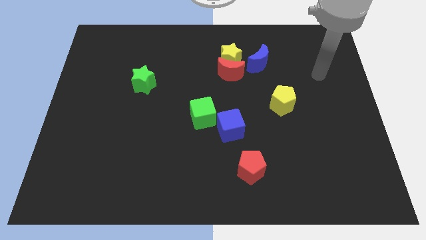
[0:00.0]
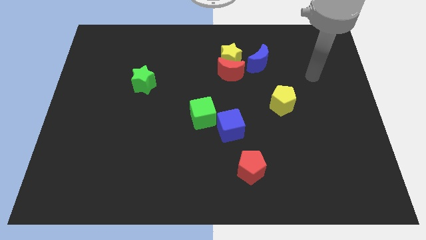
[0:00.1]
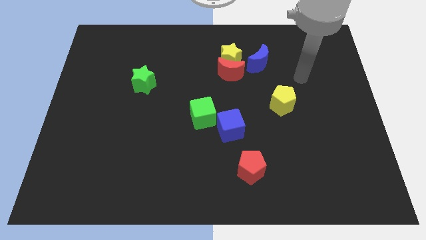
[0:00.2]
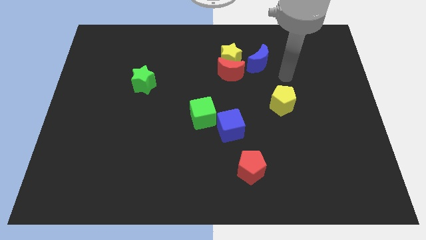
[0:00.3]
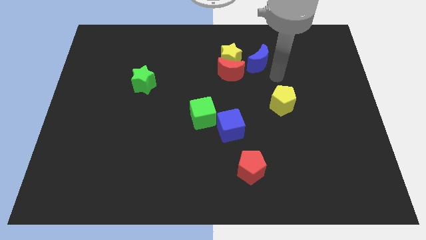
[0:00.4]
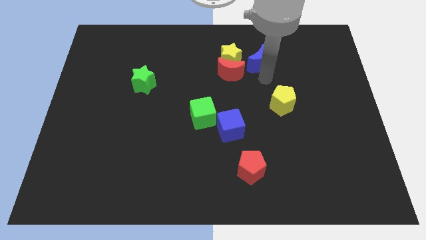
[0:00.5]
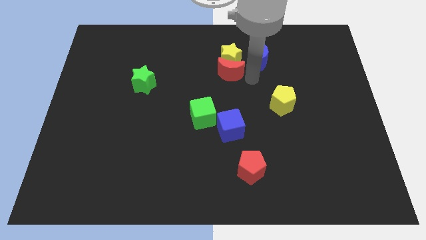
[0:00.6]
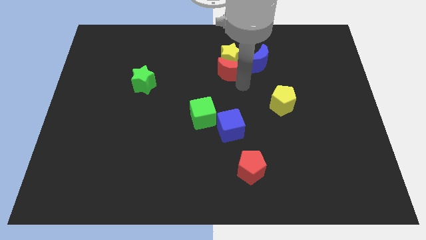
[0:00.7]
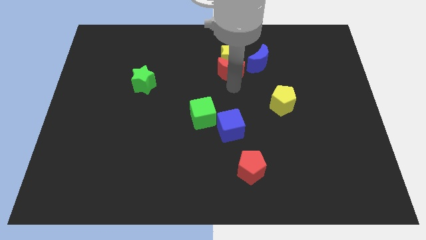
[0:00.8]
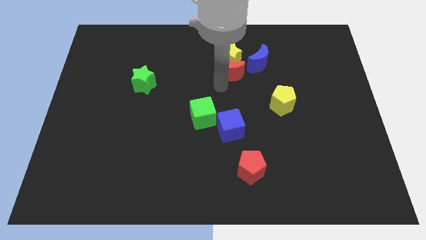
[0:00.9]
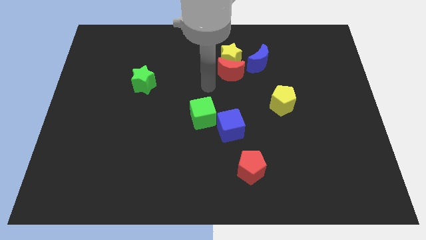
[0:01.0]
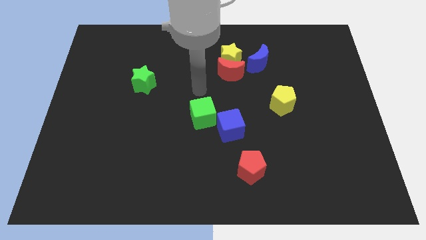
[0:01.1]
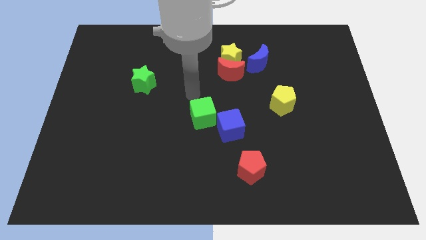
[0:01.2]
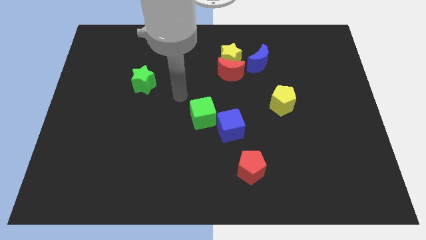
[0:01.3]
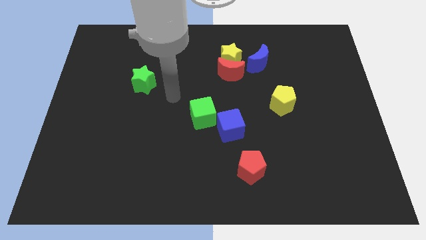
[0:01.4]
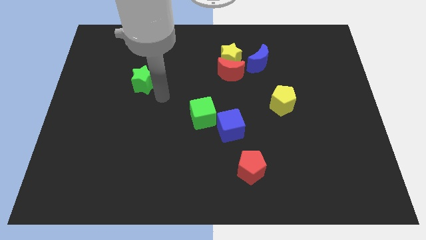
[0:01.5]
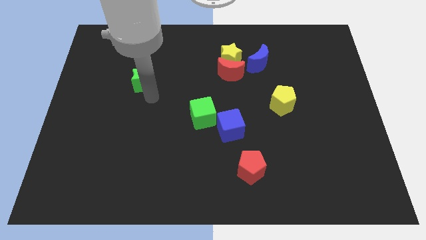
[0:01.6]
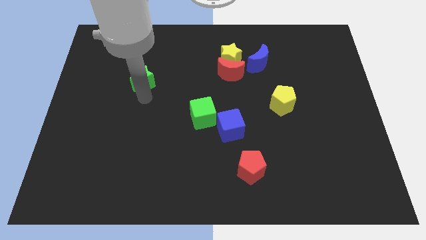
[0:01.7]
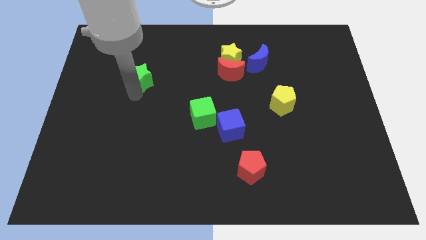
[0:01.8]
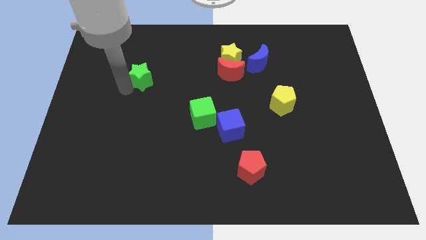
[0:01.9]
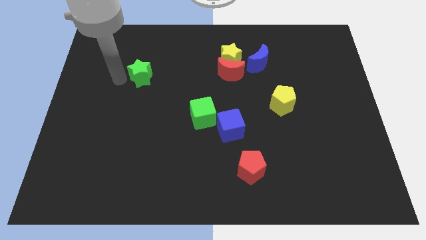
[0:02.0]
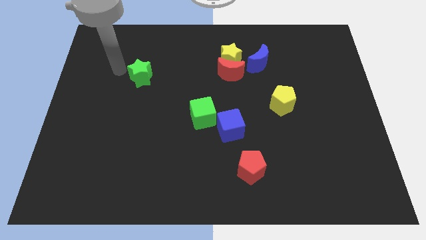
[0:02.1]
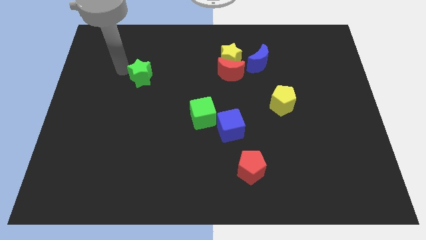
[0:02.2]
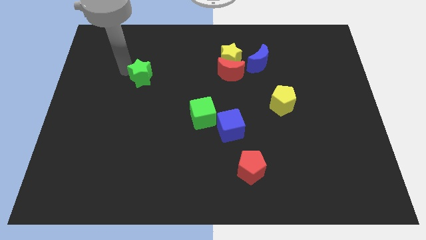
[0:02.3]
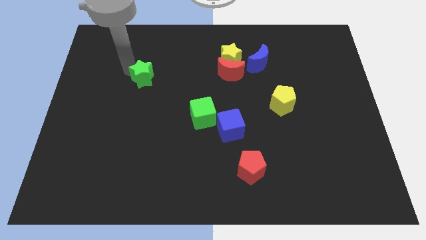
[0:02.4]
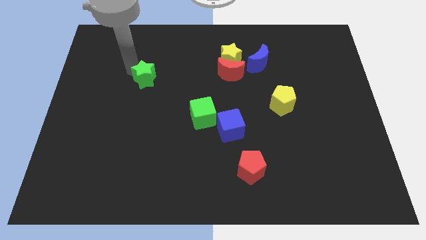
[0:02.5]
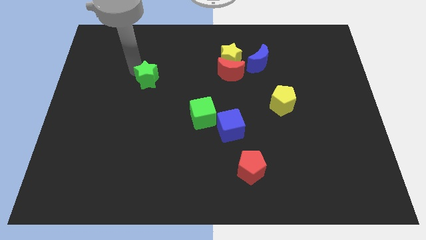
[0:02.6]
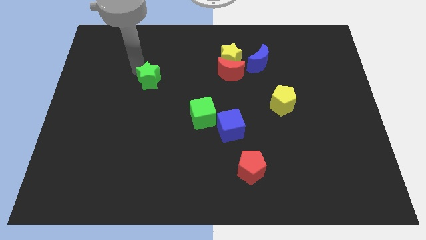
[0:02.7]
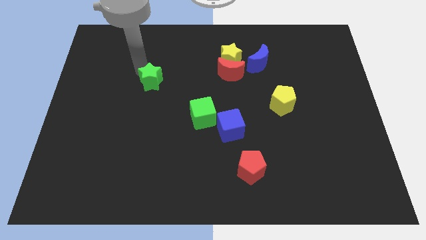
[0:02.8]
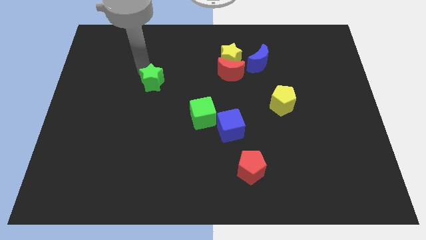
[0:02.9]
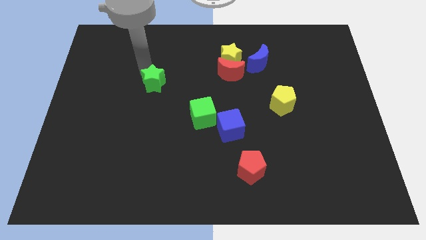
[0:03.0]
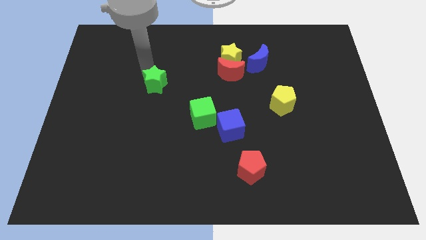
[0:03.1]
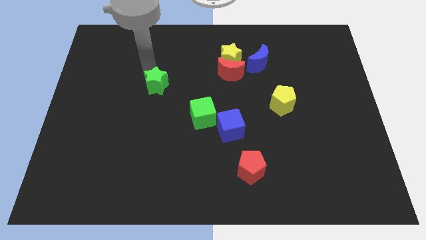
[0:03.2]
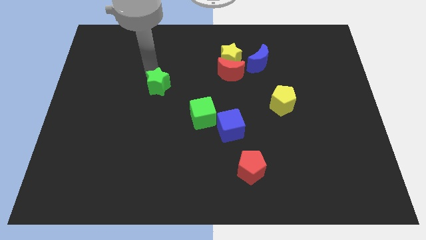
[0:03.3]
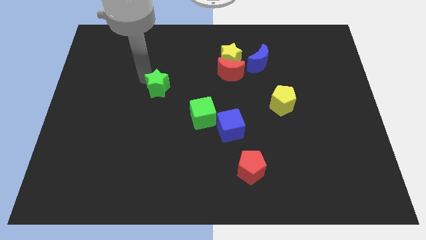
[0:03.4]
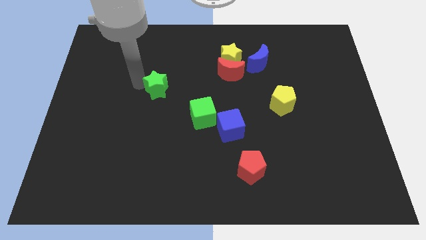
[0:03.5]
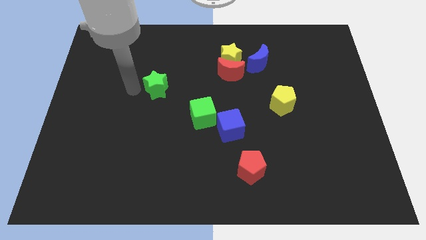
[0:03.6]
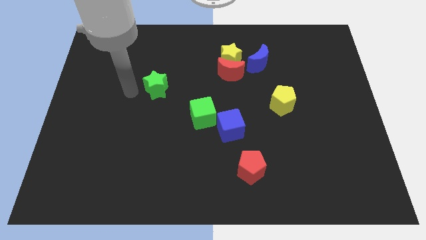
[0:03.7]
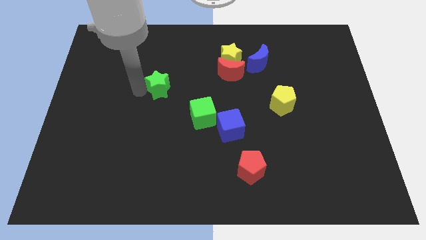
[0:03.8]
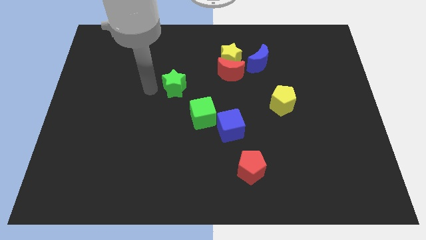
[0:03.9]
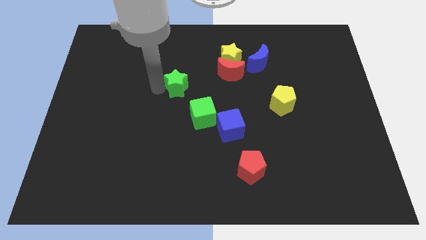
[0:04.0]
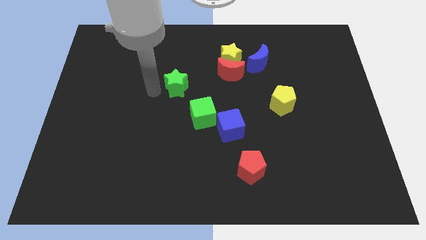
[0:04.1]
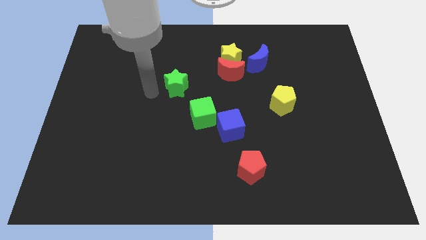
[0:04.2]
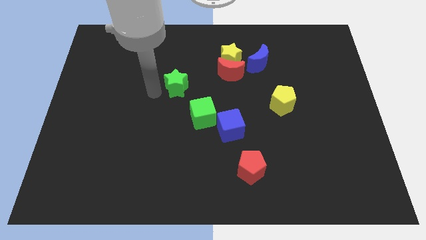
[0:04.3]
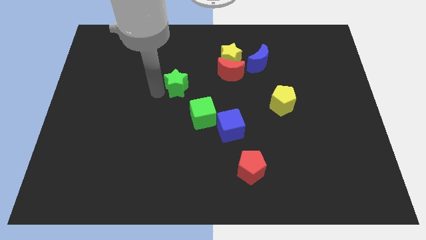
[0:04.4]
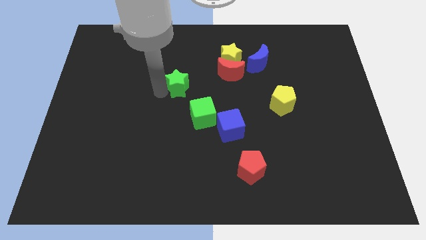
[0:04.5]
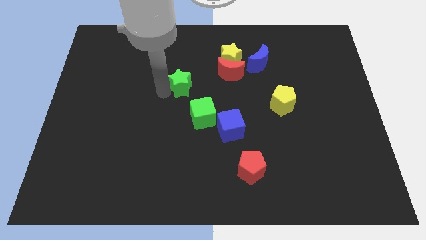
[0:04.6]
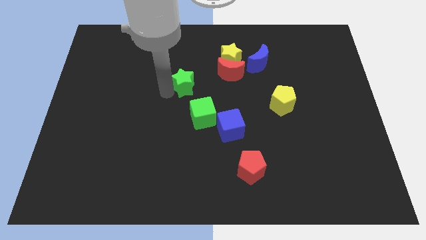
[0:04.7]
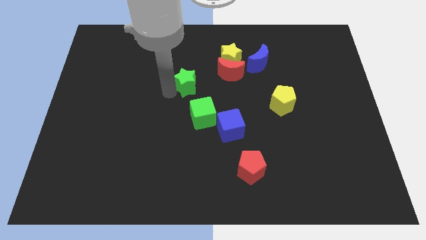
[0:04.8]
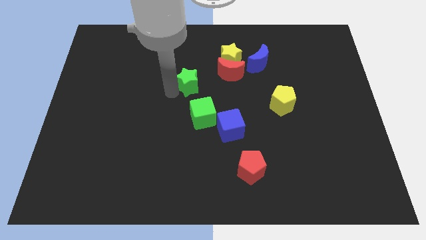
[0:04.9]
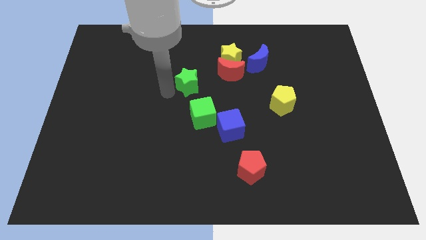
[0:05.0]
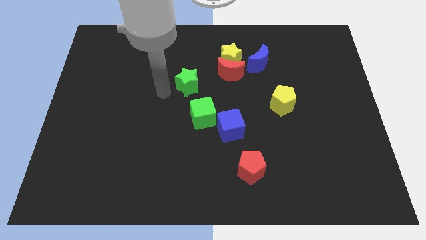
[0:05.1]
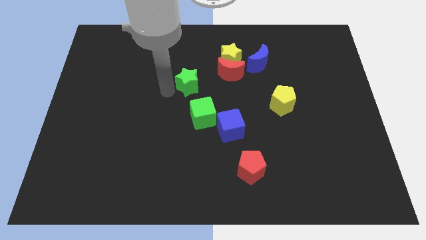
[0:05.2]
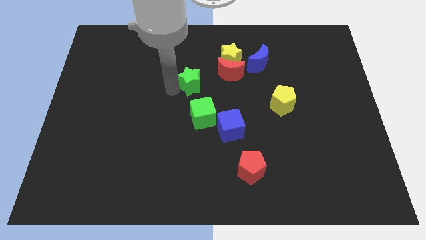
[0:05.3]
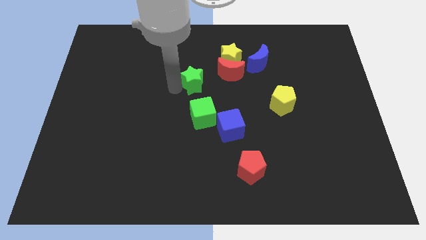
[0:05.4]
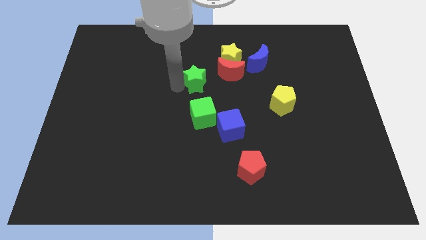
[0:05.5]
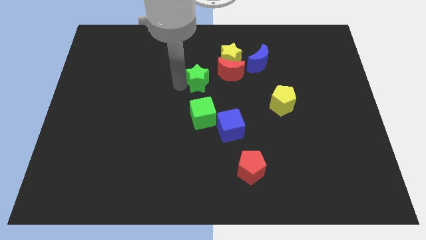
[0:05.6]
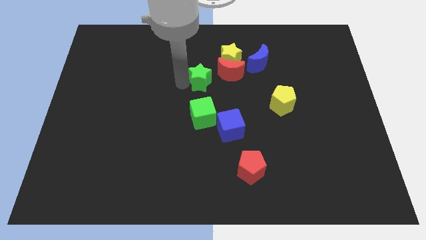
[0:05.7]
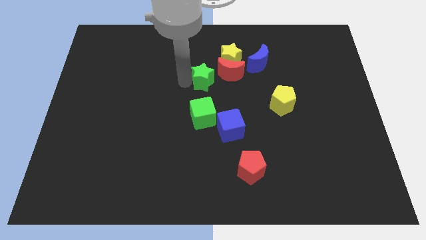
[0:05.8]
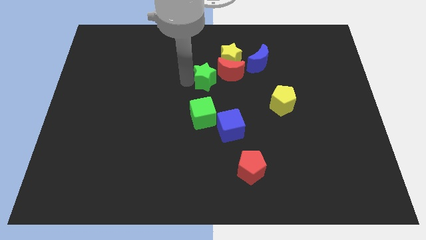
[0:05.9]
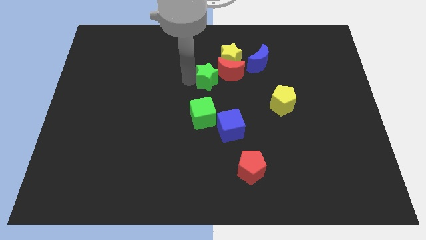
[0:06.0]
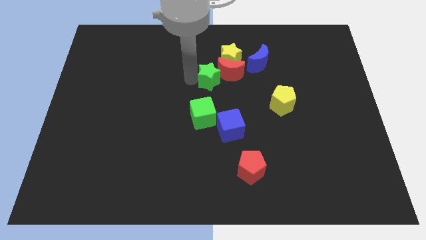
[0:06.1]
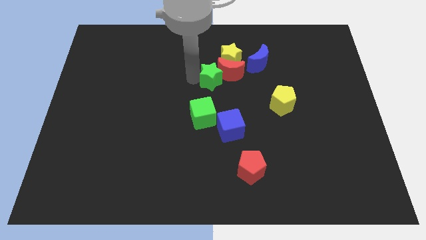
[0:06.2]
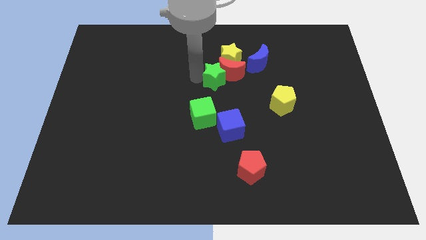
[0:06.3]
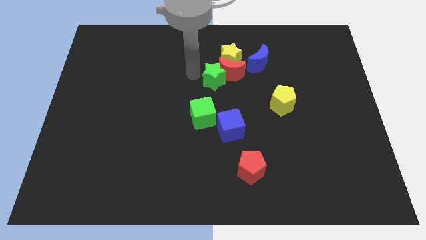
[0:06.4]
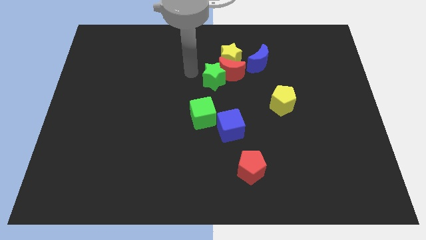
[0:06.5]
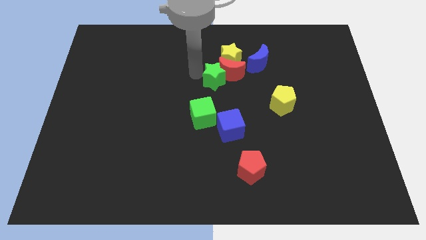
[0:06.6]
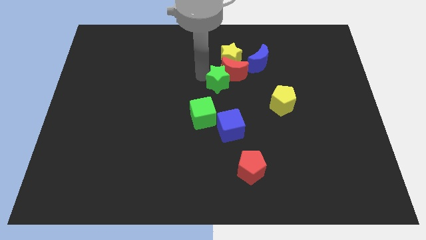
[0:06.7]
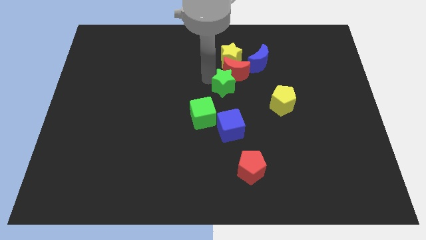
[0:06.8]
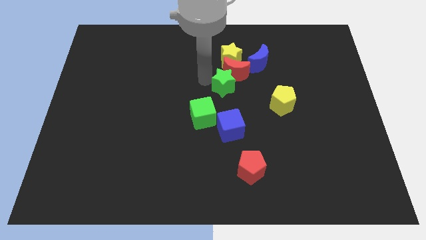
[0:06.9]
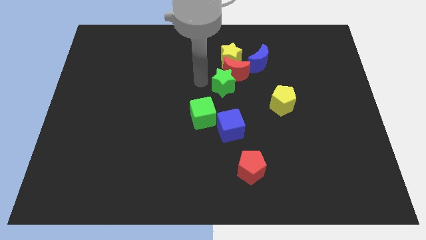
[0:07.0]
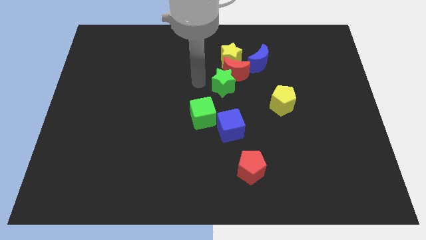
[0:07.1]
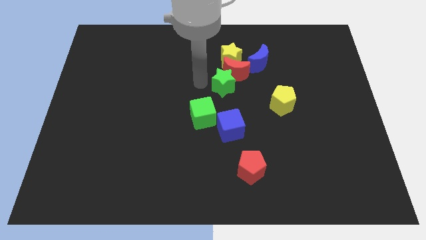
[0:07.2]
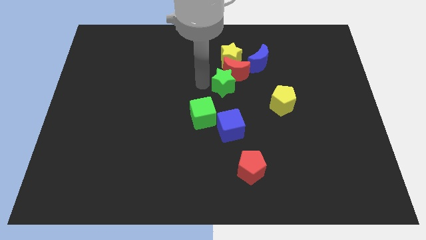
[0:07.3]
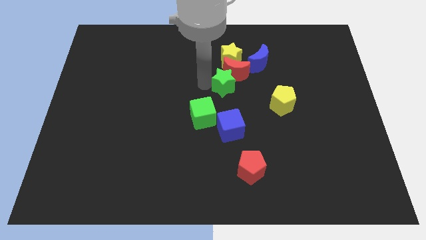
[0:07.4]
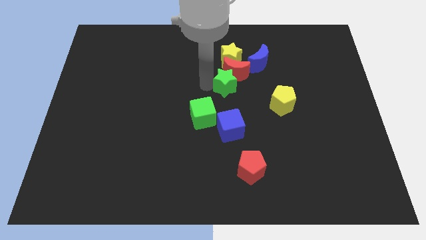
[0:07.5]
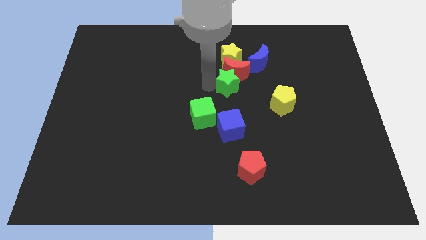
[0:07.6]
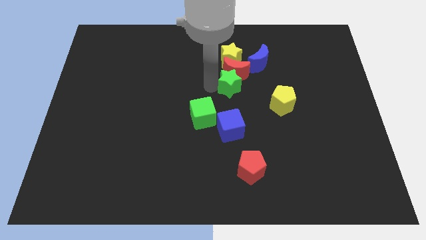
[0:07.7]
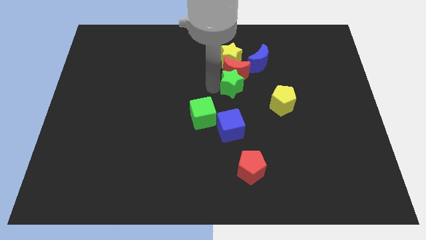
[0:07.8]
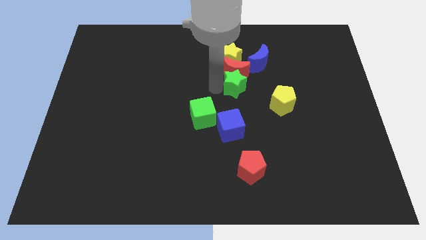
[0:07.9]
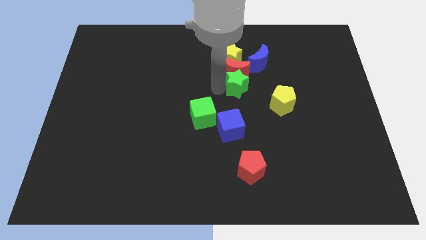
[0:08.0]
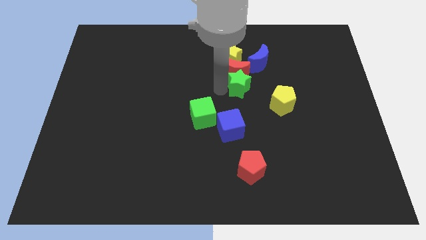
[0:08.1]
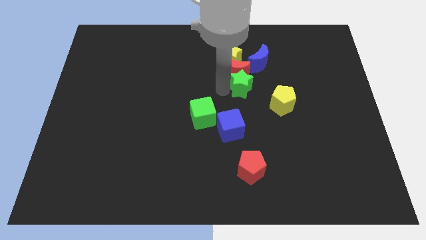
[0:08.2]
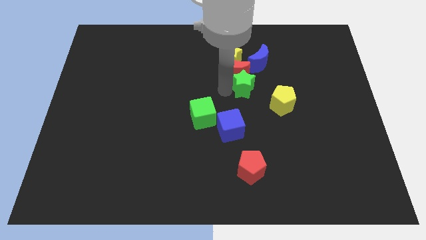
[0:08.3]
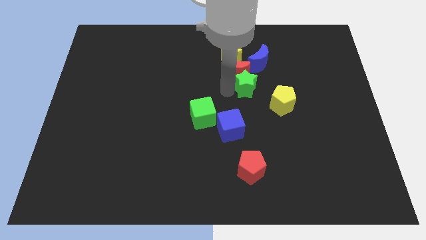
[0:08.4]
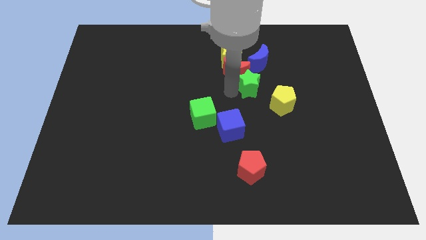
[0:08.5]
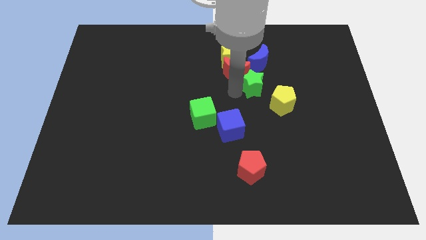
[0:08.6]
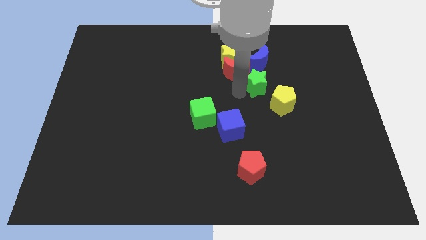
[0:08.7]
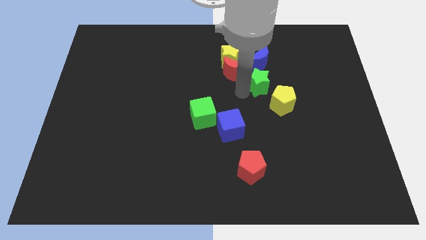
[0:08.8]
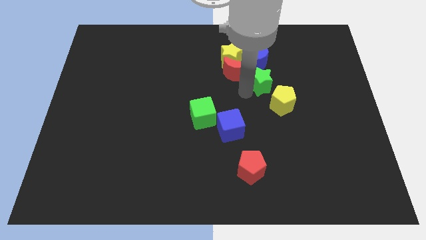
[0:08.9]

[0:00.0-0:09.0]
slide the green star to the top of the yellow pentagon
